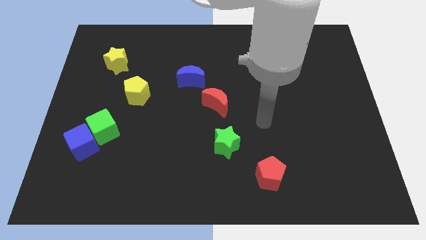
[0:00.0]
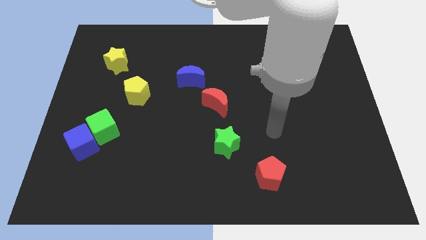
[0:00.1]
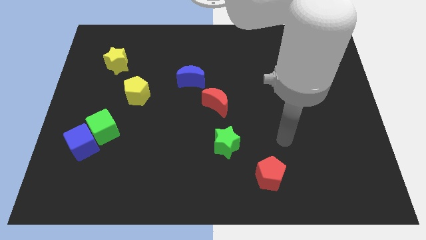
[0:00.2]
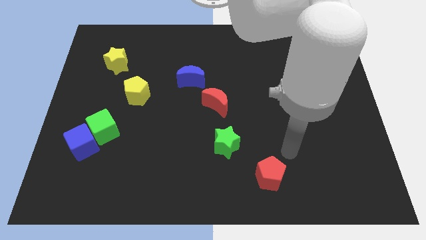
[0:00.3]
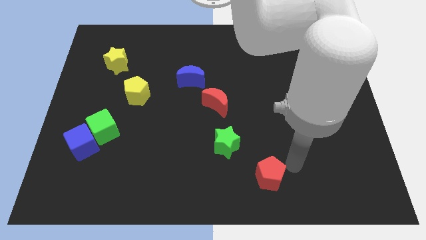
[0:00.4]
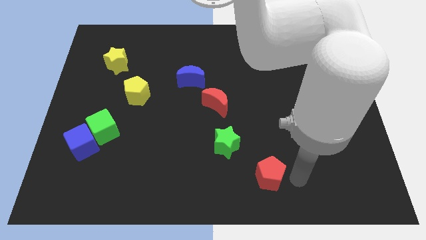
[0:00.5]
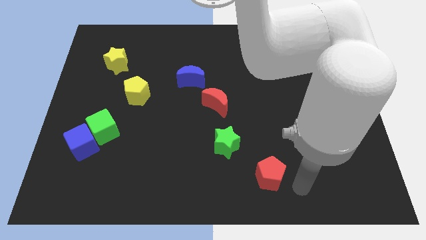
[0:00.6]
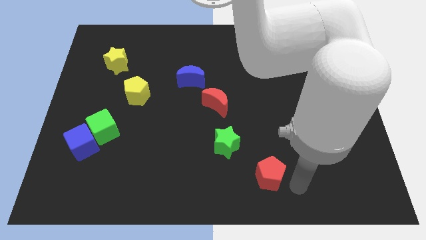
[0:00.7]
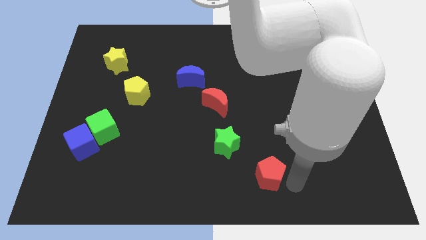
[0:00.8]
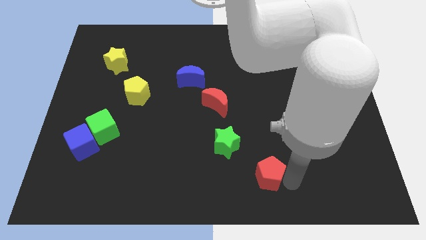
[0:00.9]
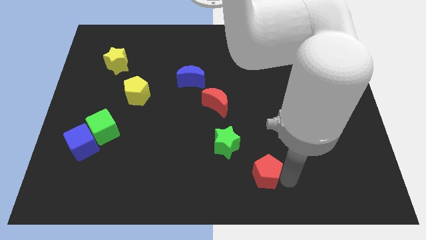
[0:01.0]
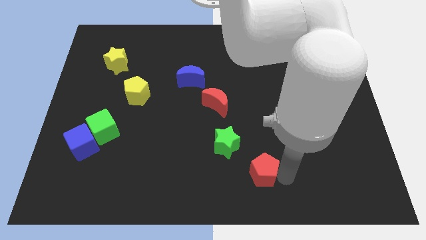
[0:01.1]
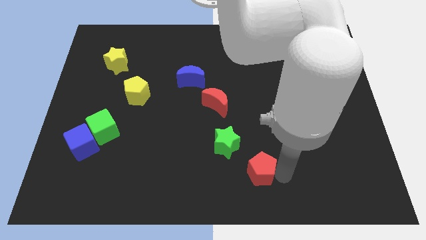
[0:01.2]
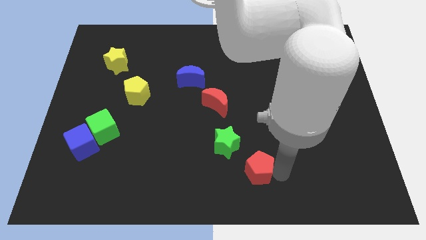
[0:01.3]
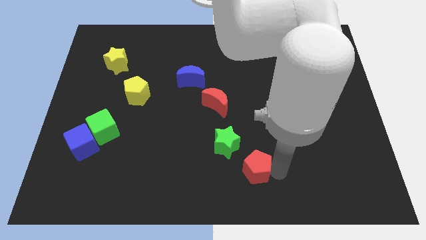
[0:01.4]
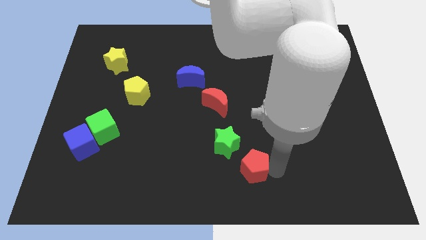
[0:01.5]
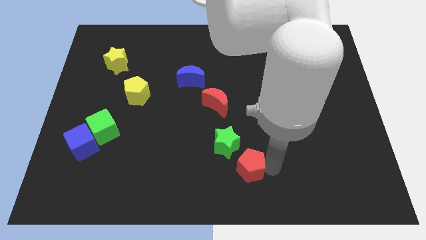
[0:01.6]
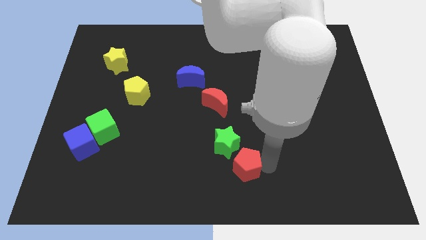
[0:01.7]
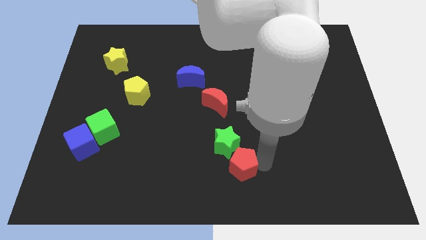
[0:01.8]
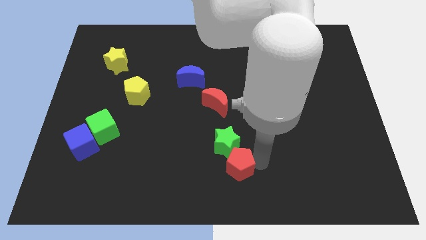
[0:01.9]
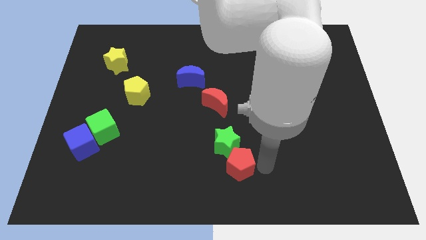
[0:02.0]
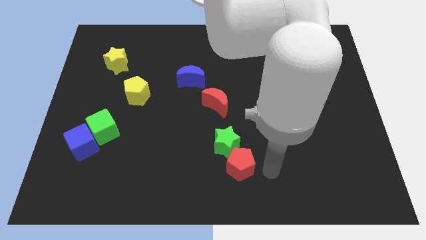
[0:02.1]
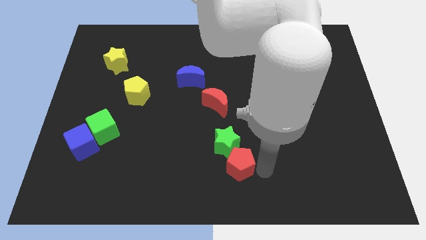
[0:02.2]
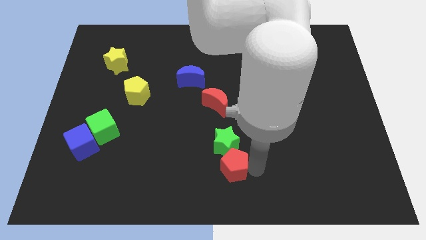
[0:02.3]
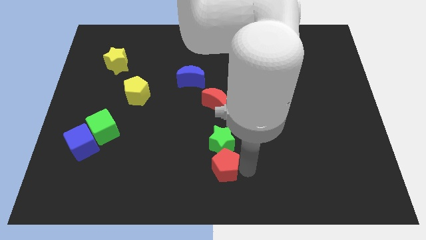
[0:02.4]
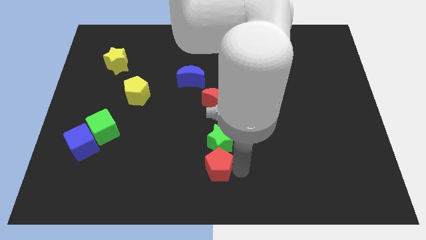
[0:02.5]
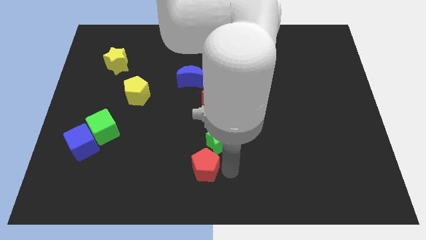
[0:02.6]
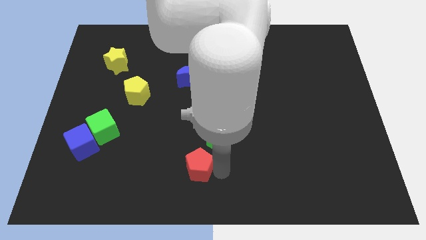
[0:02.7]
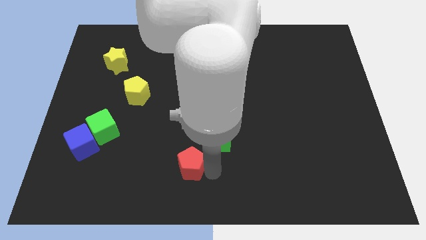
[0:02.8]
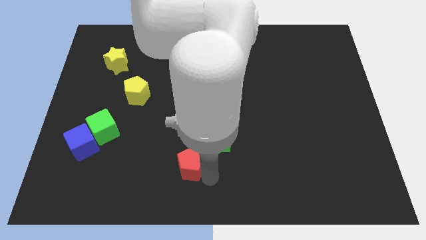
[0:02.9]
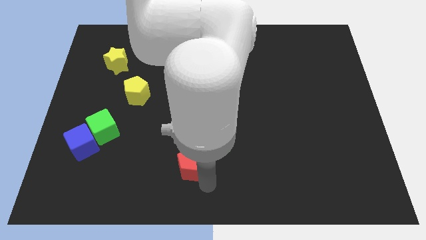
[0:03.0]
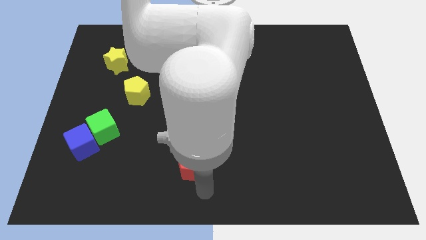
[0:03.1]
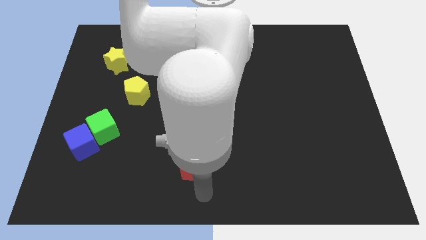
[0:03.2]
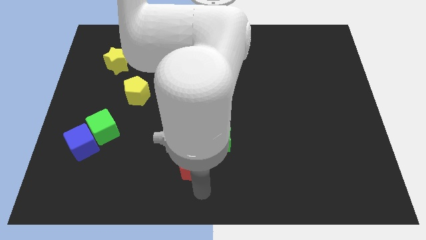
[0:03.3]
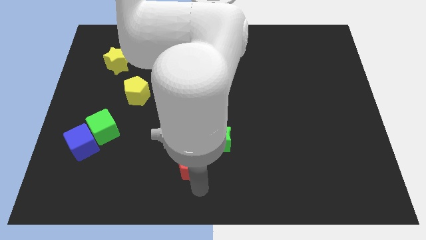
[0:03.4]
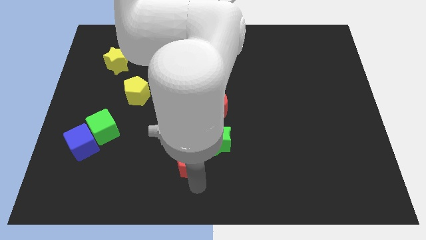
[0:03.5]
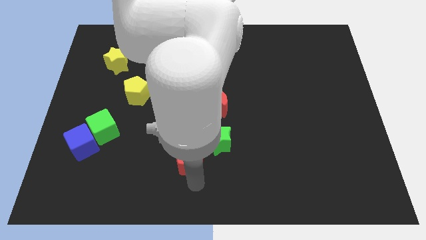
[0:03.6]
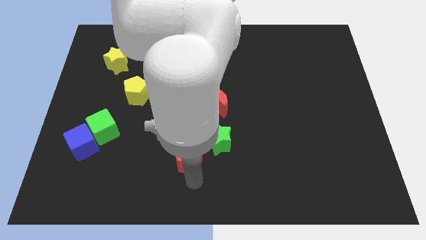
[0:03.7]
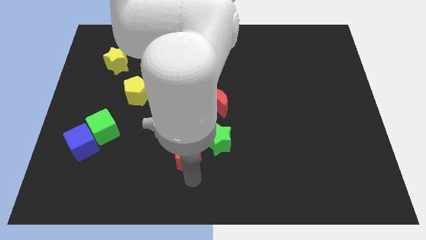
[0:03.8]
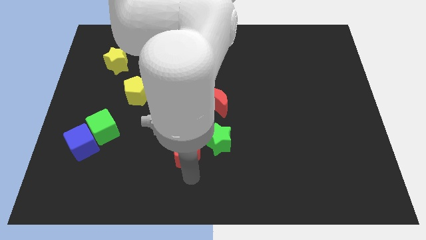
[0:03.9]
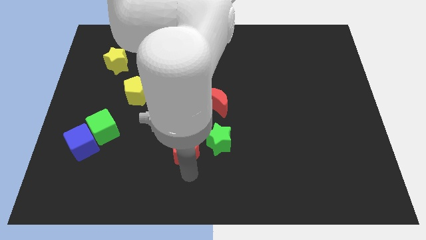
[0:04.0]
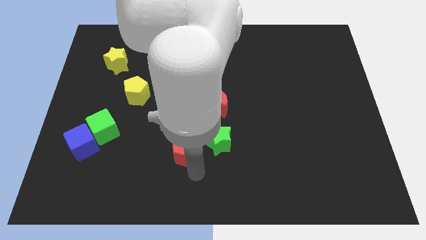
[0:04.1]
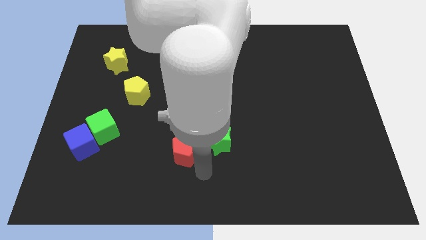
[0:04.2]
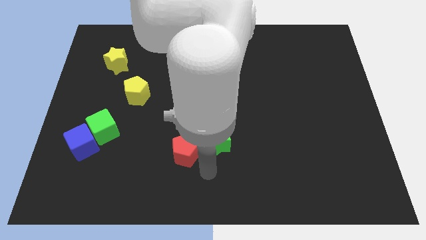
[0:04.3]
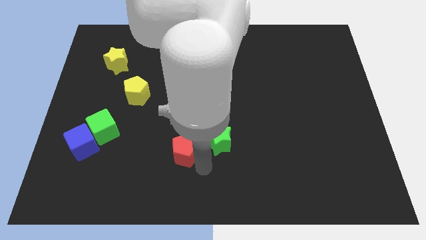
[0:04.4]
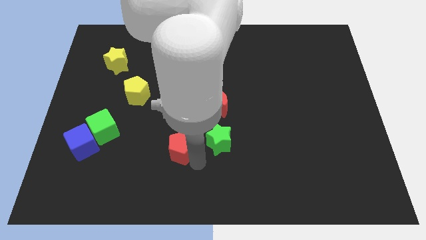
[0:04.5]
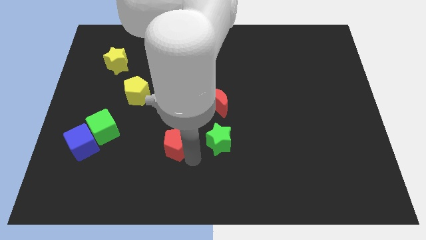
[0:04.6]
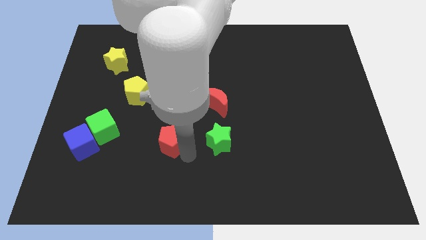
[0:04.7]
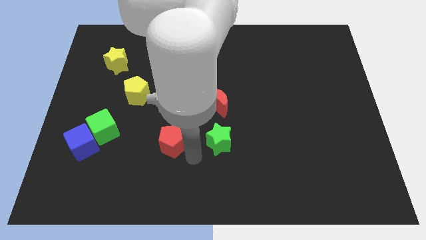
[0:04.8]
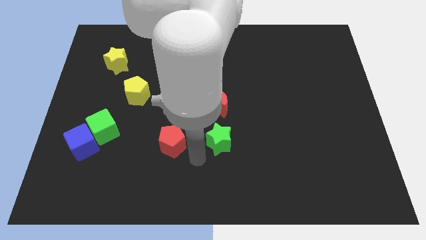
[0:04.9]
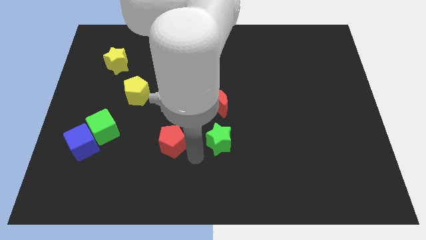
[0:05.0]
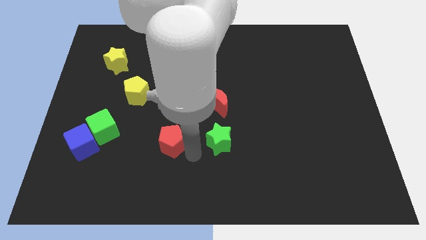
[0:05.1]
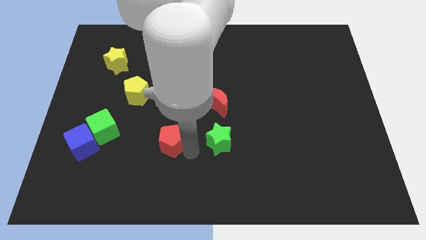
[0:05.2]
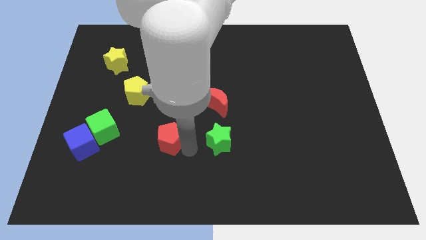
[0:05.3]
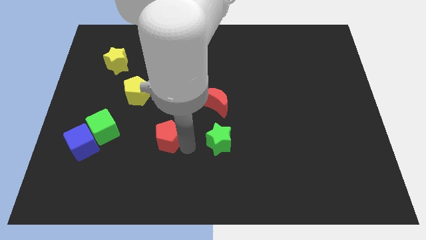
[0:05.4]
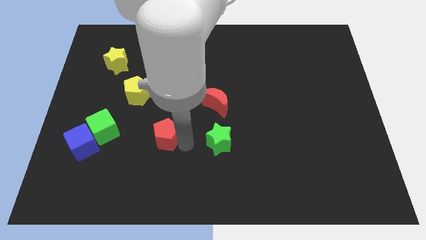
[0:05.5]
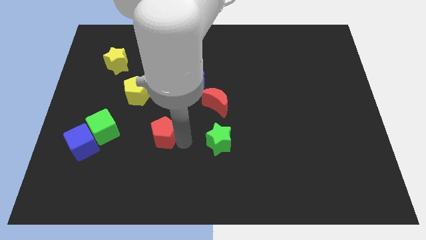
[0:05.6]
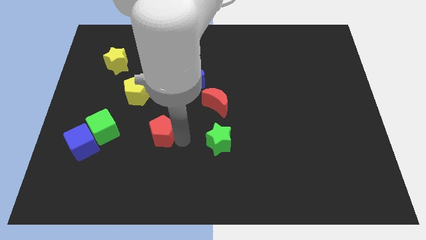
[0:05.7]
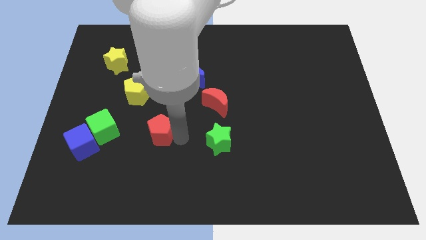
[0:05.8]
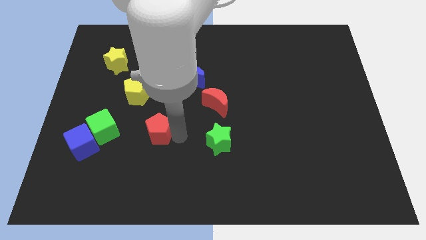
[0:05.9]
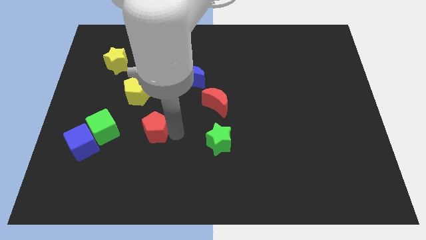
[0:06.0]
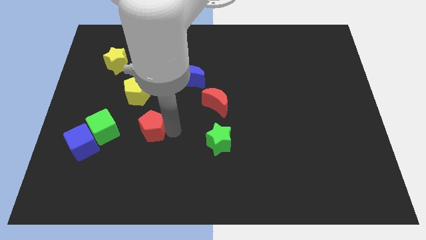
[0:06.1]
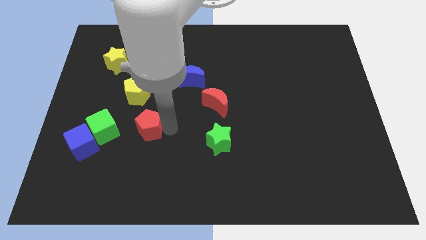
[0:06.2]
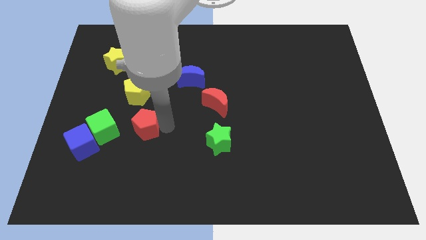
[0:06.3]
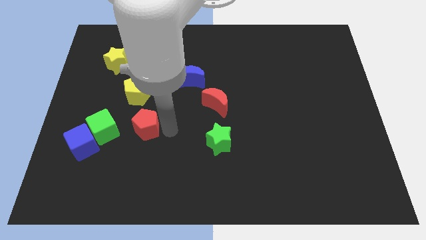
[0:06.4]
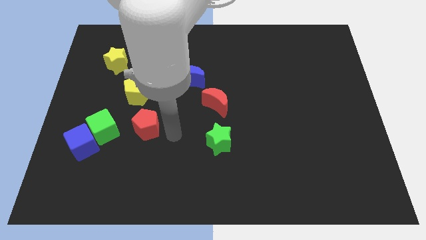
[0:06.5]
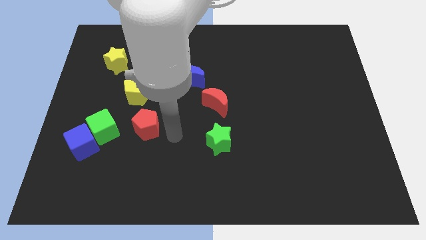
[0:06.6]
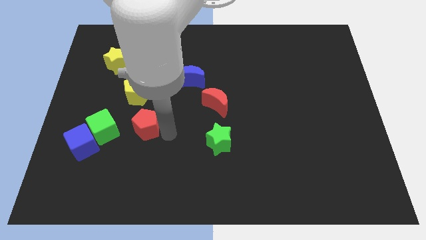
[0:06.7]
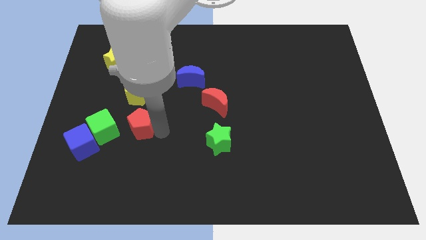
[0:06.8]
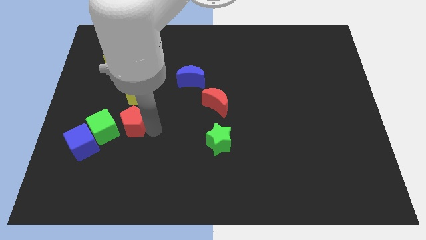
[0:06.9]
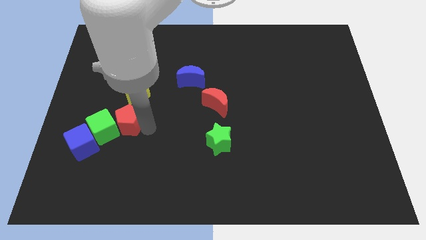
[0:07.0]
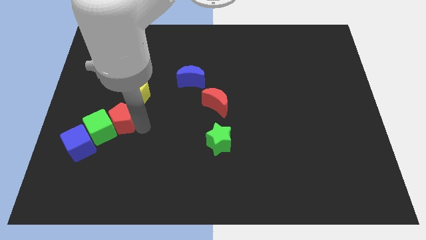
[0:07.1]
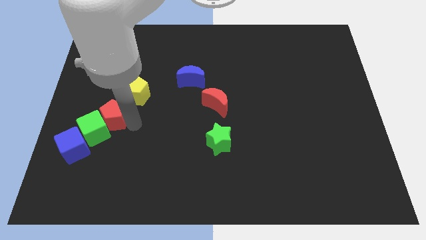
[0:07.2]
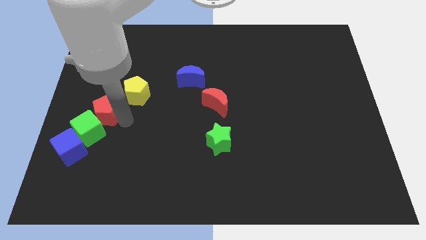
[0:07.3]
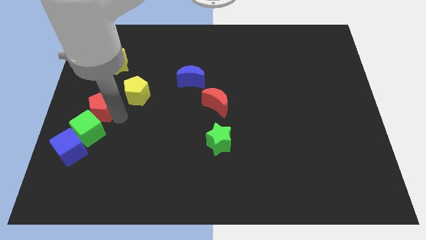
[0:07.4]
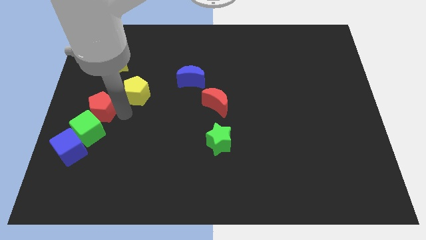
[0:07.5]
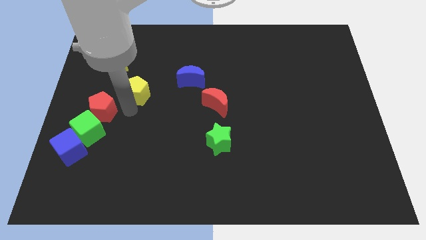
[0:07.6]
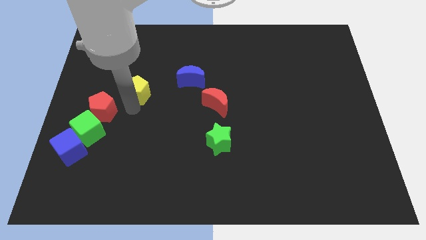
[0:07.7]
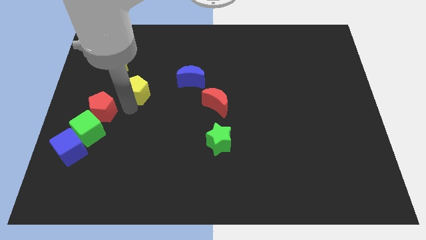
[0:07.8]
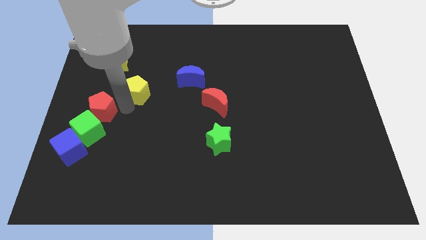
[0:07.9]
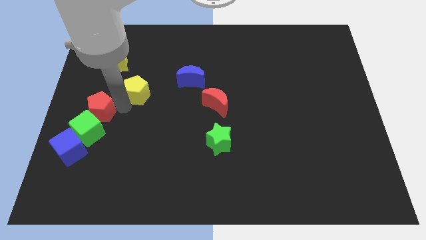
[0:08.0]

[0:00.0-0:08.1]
put the red pentagon to the top side of the blue cube

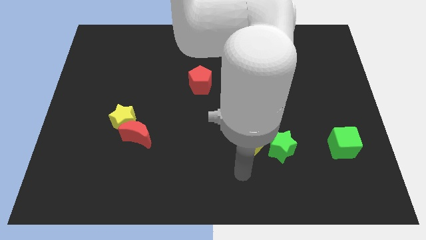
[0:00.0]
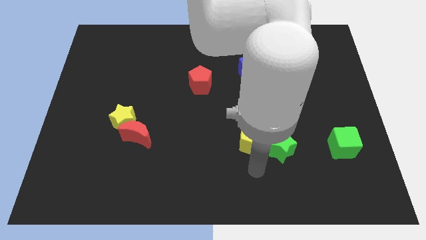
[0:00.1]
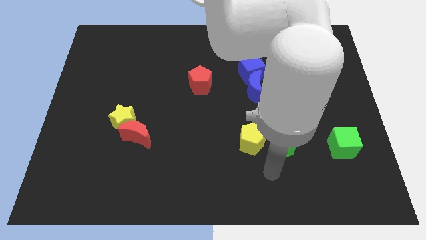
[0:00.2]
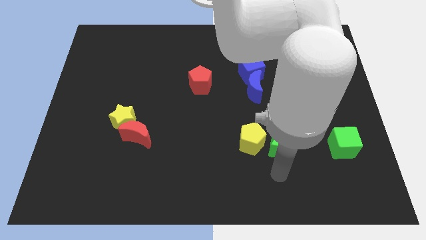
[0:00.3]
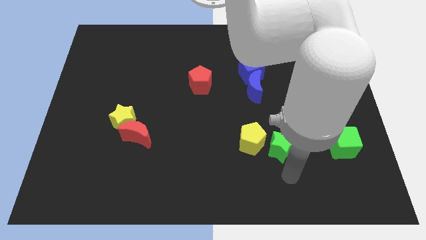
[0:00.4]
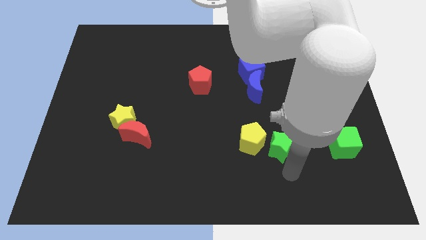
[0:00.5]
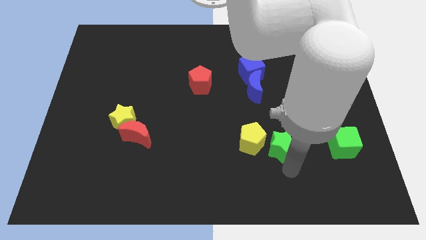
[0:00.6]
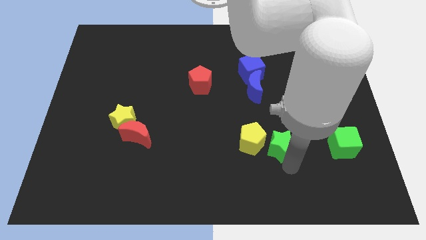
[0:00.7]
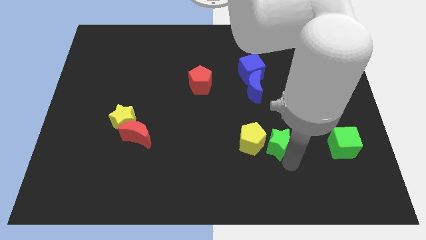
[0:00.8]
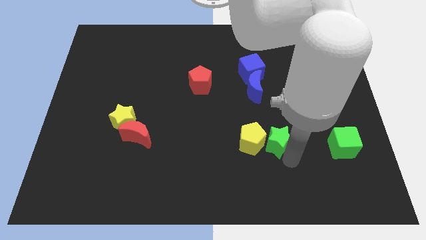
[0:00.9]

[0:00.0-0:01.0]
put the green star to the top right of the yellow pentagon
